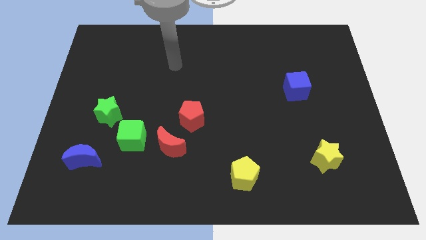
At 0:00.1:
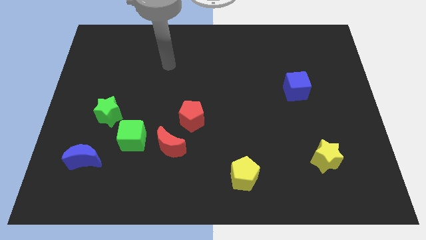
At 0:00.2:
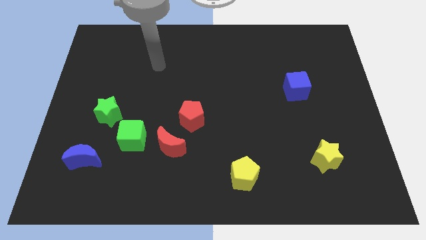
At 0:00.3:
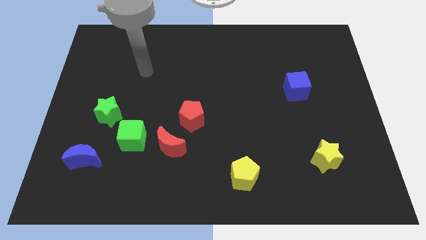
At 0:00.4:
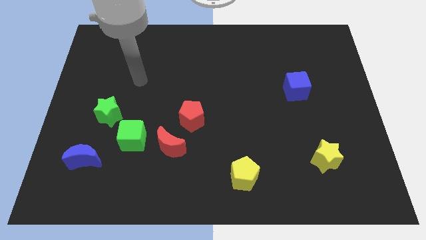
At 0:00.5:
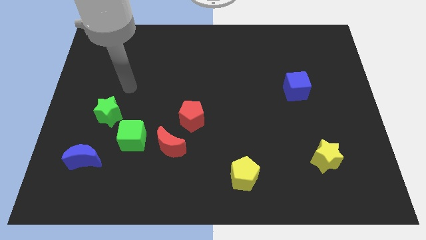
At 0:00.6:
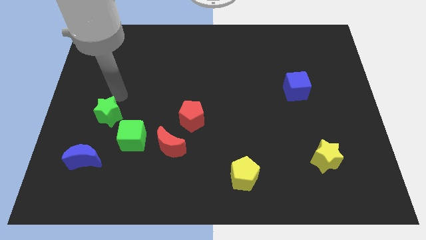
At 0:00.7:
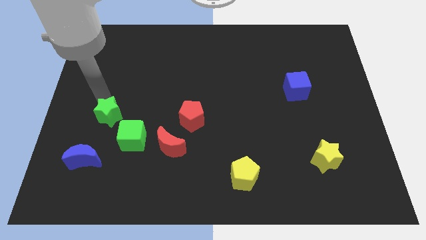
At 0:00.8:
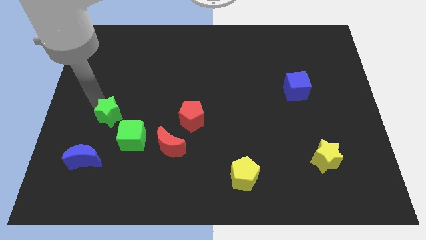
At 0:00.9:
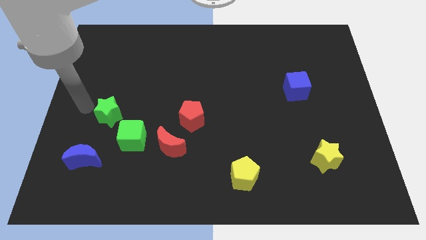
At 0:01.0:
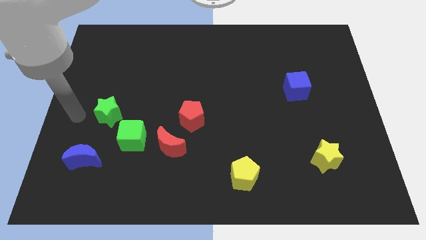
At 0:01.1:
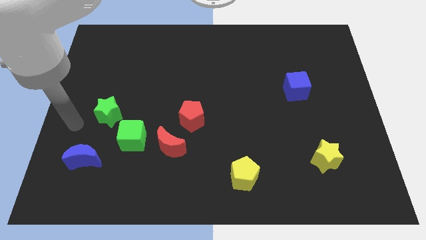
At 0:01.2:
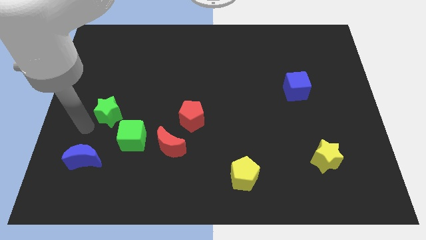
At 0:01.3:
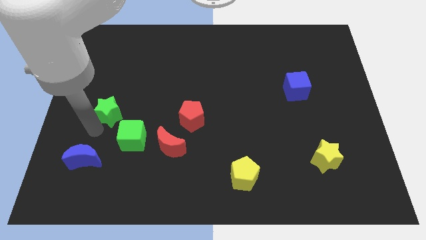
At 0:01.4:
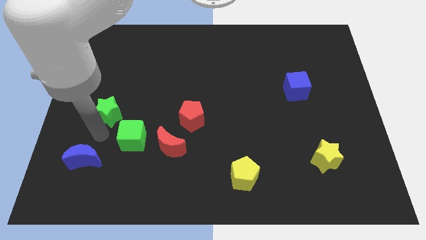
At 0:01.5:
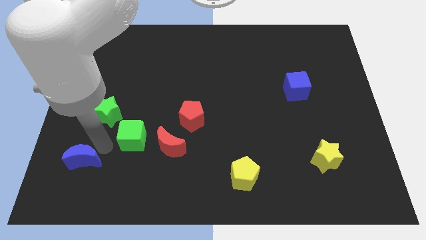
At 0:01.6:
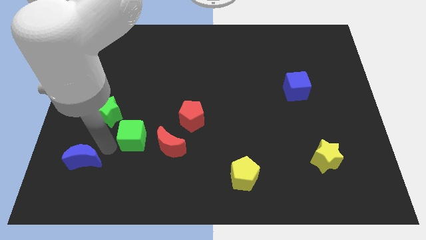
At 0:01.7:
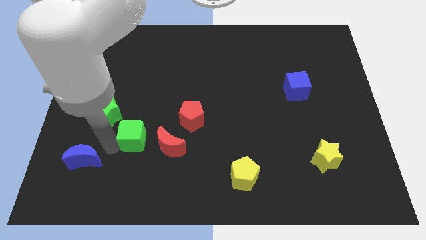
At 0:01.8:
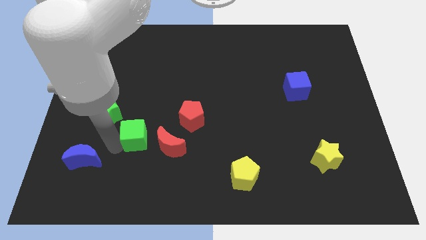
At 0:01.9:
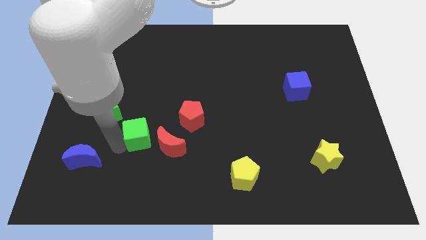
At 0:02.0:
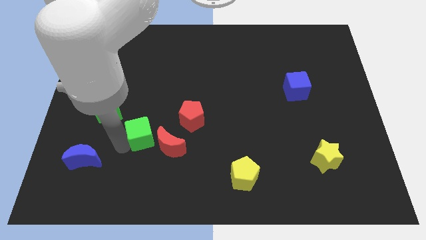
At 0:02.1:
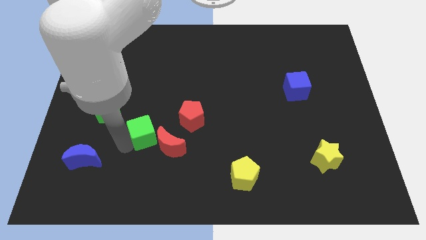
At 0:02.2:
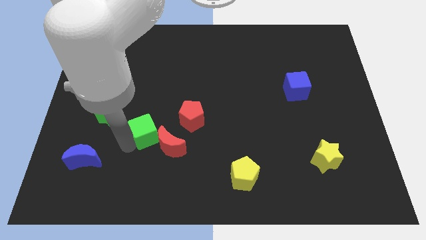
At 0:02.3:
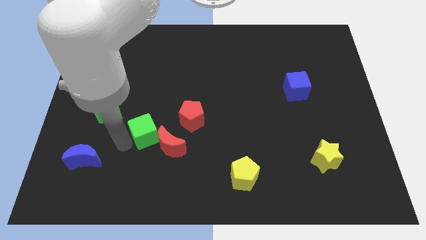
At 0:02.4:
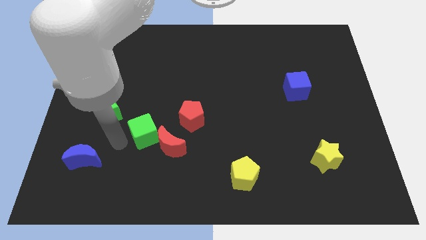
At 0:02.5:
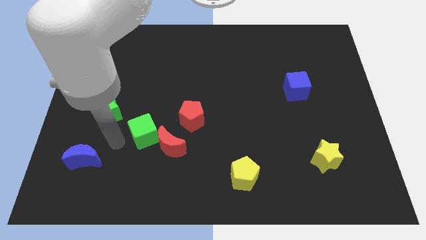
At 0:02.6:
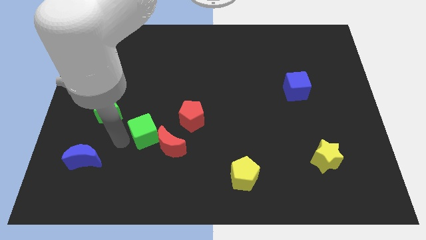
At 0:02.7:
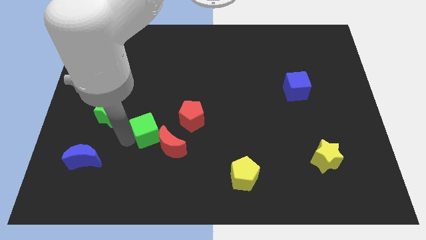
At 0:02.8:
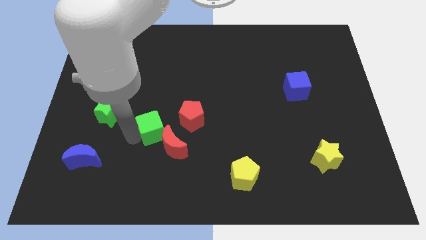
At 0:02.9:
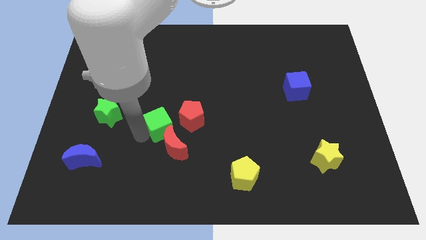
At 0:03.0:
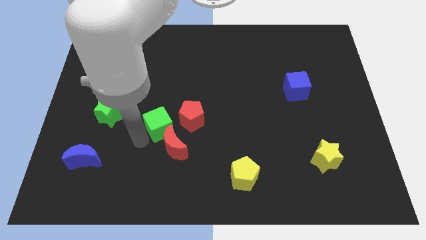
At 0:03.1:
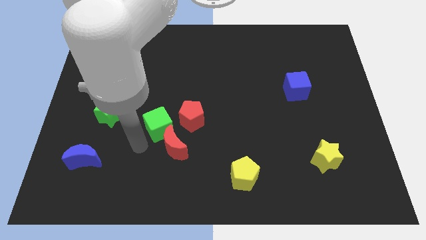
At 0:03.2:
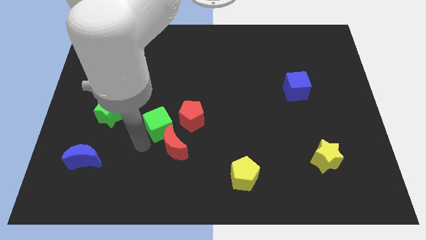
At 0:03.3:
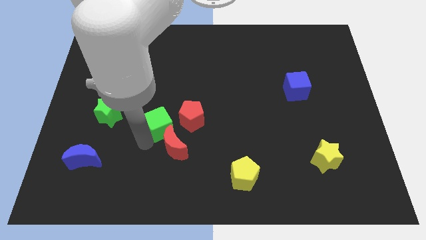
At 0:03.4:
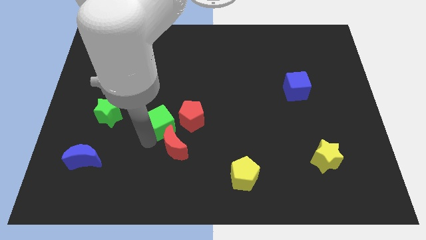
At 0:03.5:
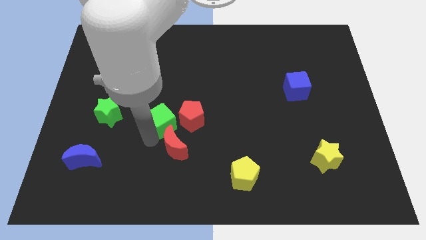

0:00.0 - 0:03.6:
slightly slide the green cube up and right diagonally

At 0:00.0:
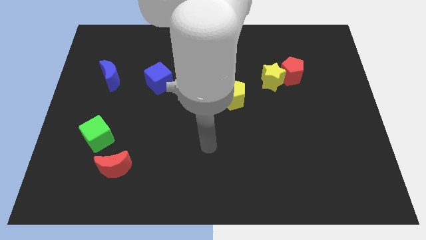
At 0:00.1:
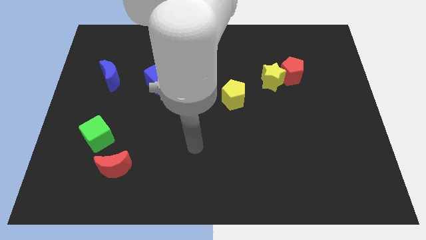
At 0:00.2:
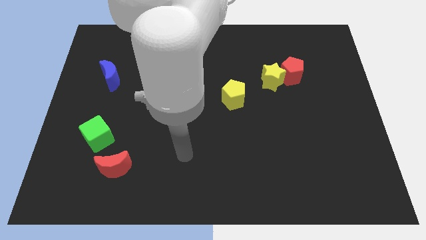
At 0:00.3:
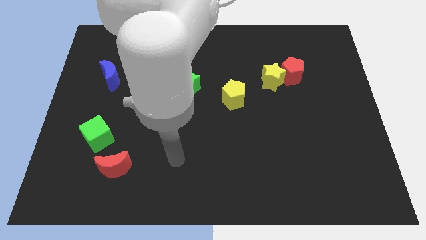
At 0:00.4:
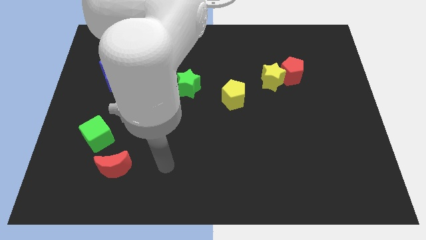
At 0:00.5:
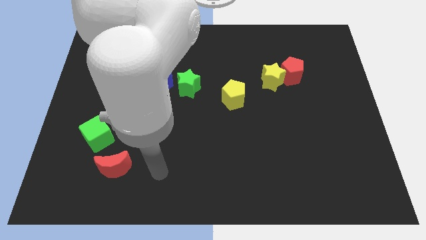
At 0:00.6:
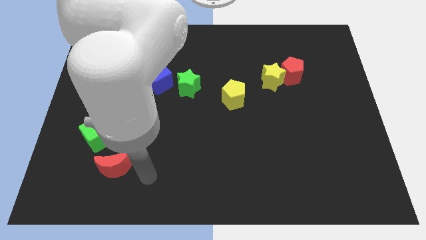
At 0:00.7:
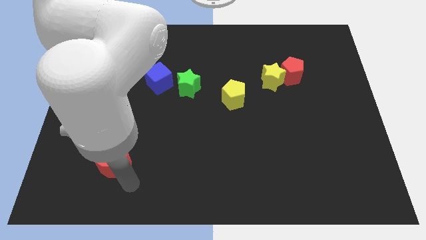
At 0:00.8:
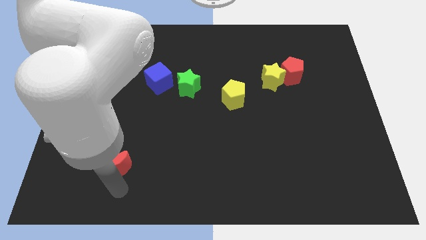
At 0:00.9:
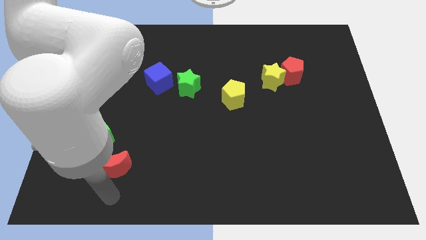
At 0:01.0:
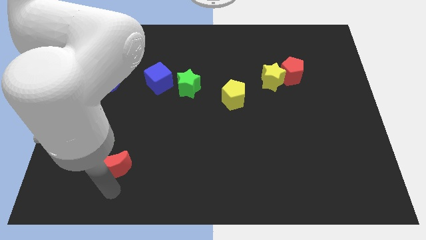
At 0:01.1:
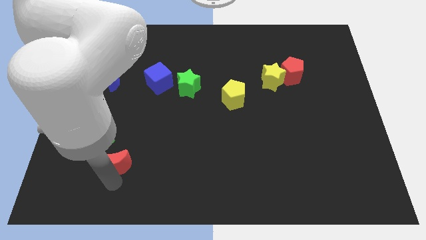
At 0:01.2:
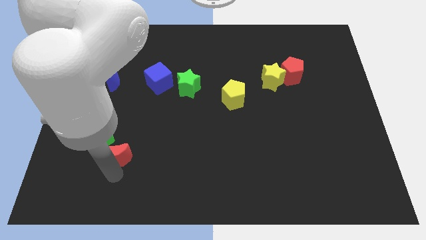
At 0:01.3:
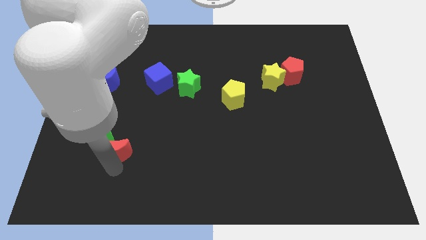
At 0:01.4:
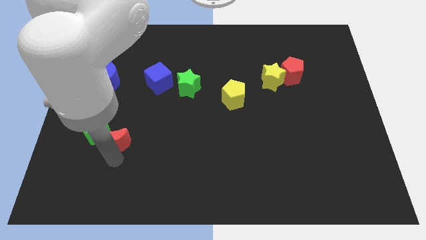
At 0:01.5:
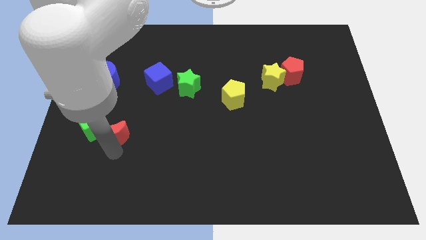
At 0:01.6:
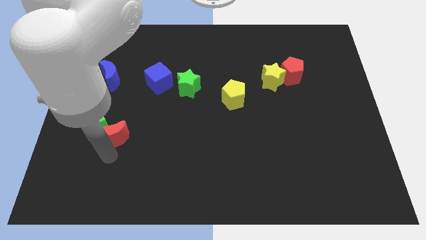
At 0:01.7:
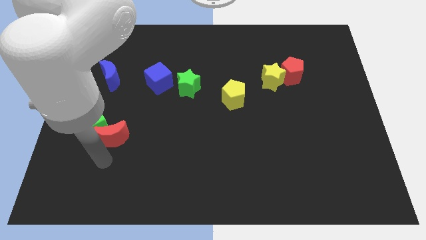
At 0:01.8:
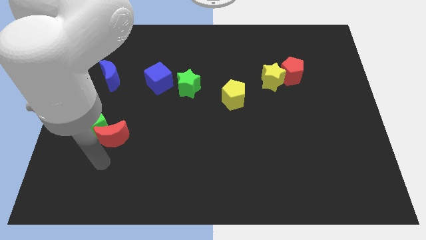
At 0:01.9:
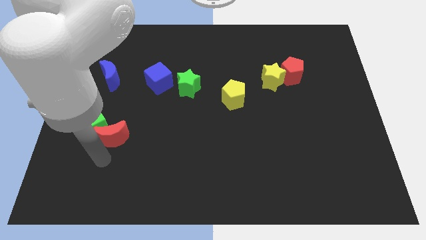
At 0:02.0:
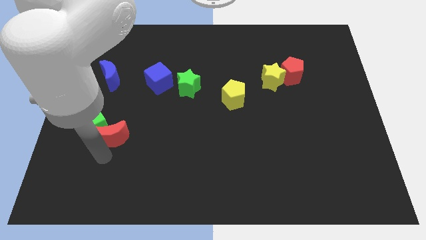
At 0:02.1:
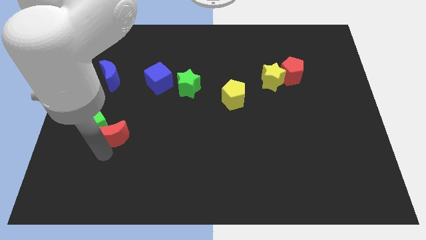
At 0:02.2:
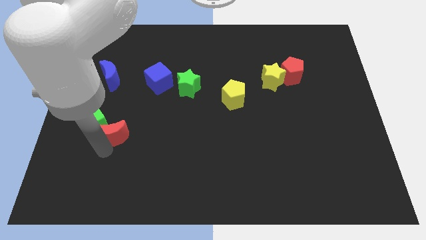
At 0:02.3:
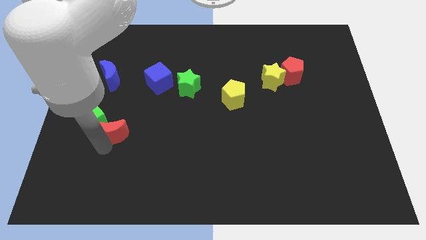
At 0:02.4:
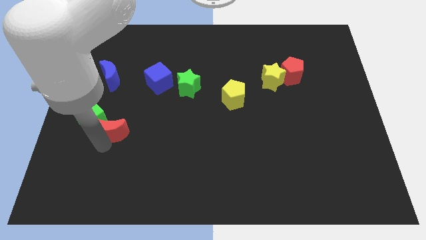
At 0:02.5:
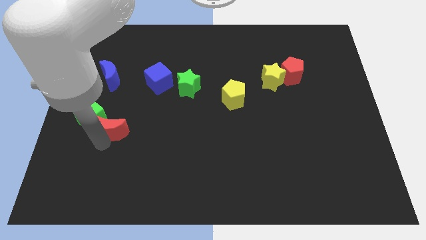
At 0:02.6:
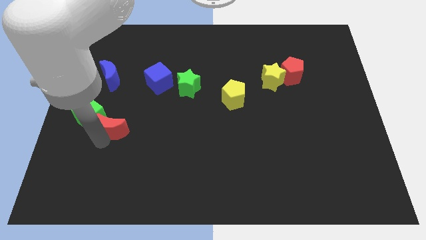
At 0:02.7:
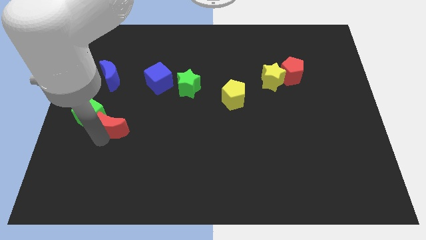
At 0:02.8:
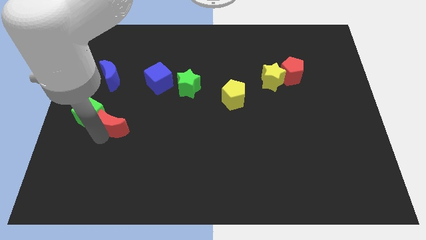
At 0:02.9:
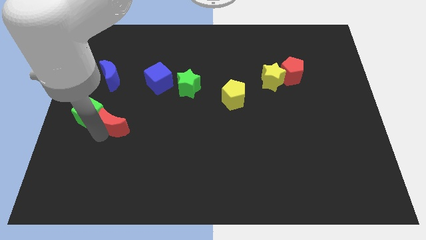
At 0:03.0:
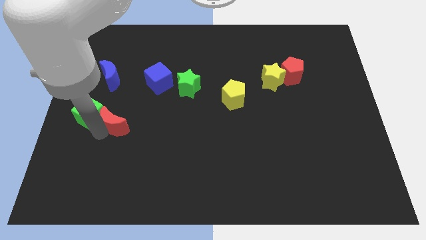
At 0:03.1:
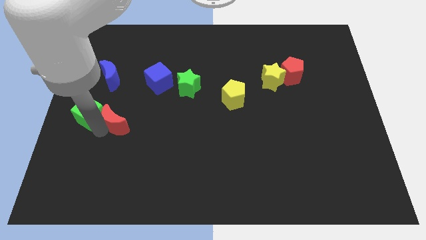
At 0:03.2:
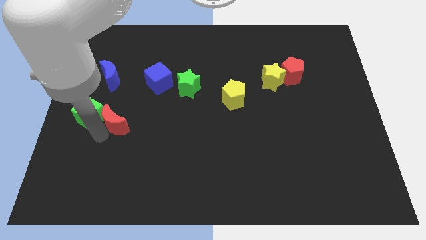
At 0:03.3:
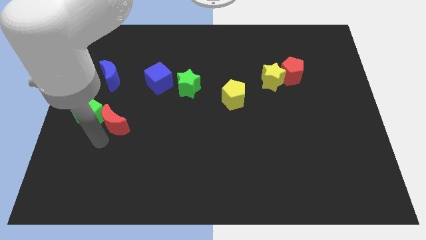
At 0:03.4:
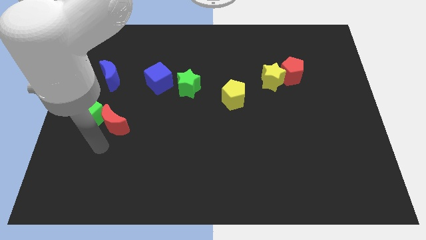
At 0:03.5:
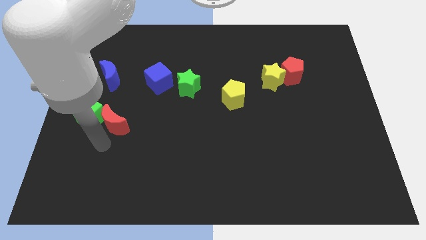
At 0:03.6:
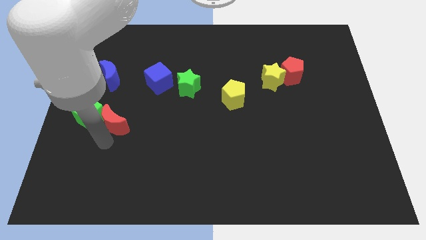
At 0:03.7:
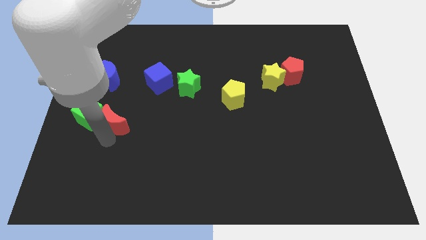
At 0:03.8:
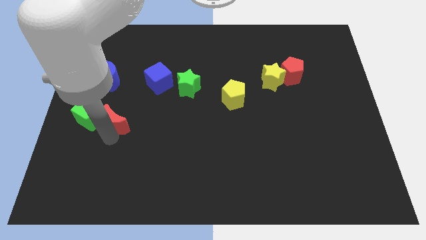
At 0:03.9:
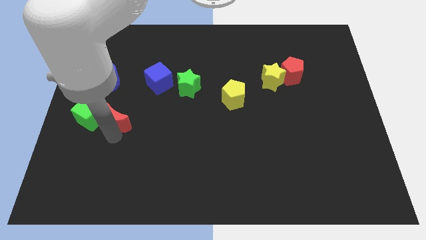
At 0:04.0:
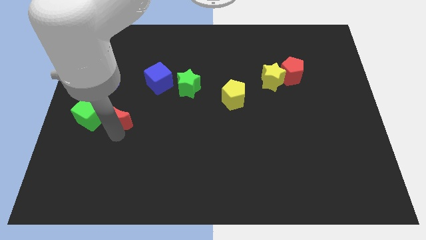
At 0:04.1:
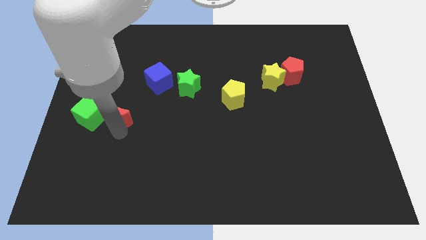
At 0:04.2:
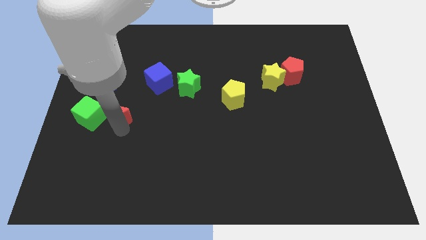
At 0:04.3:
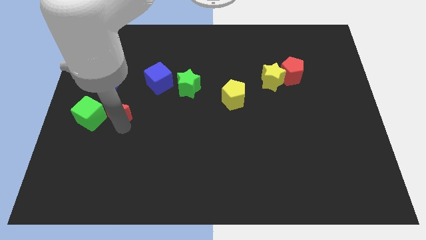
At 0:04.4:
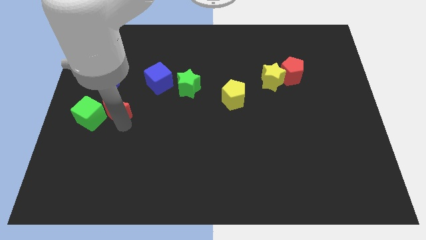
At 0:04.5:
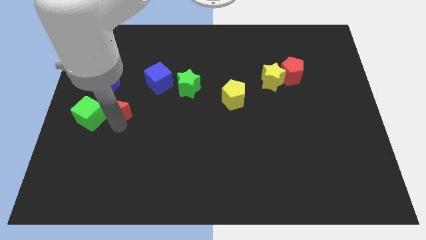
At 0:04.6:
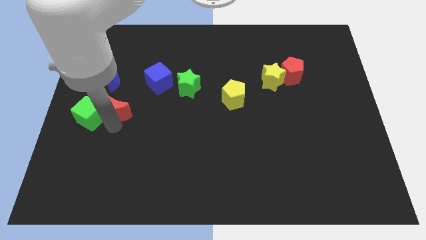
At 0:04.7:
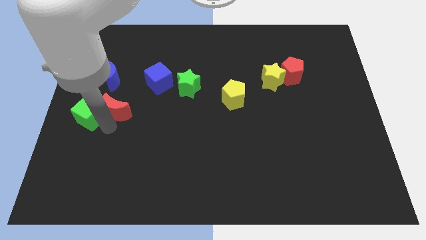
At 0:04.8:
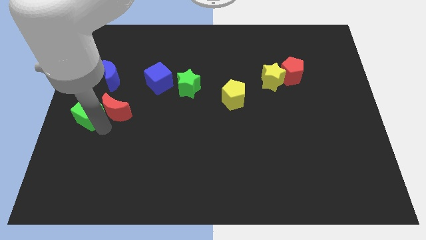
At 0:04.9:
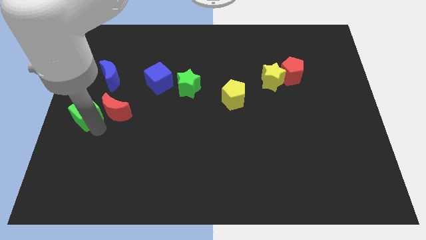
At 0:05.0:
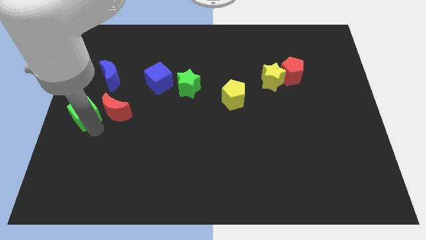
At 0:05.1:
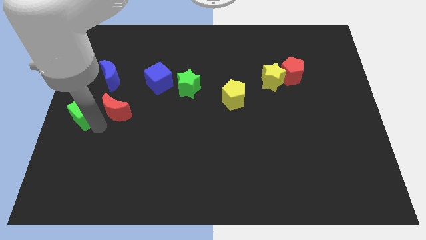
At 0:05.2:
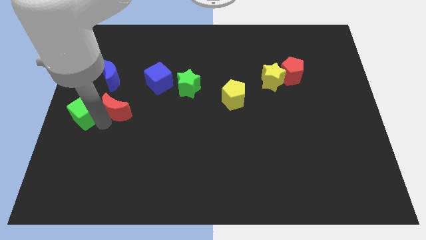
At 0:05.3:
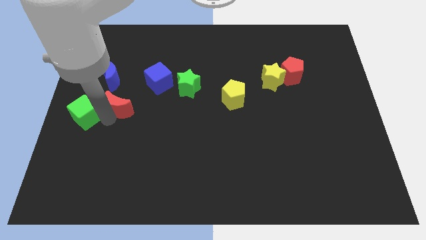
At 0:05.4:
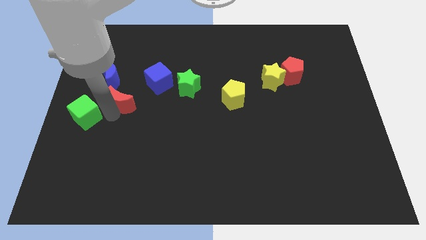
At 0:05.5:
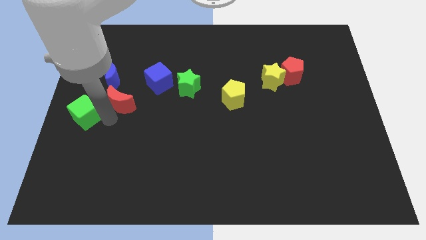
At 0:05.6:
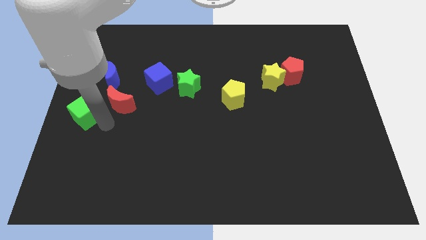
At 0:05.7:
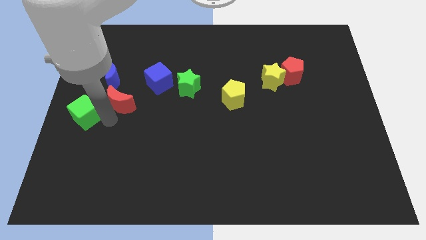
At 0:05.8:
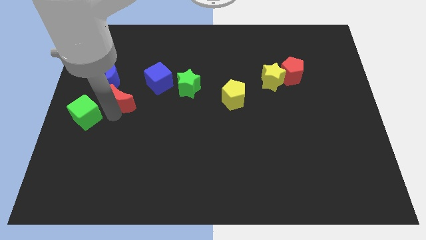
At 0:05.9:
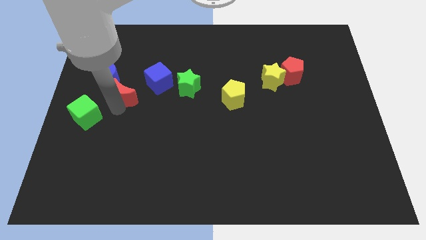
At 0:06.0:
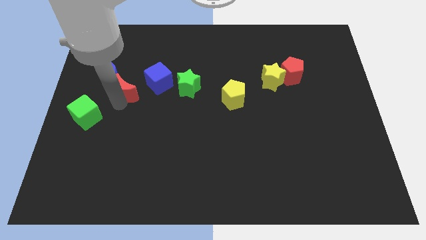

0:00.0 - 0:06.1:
move the red moon up
